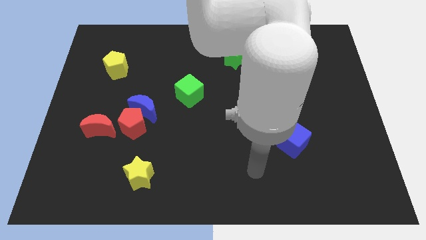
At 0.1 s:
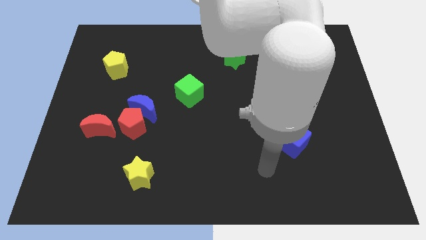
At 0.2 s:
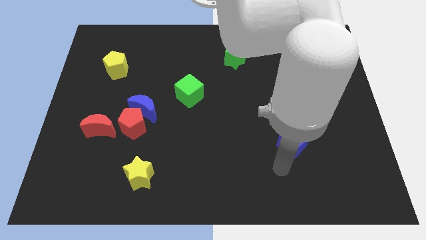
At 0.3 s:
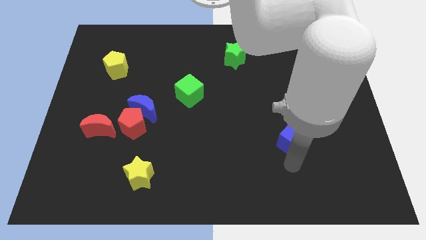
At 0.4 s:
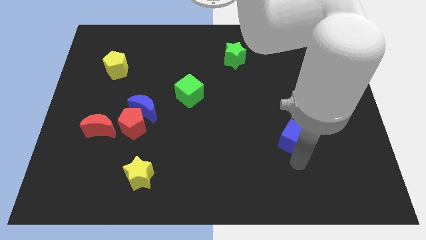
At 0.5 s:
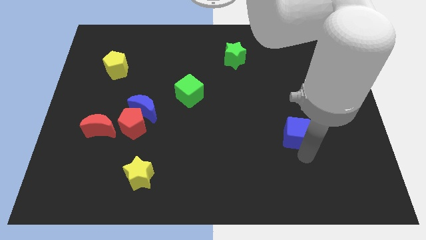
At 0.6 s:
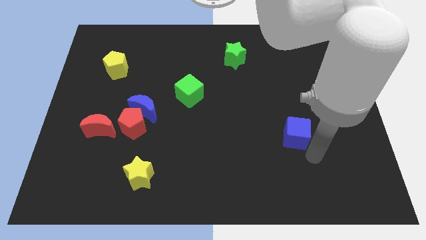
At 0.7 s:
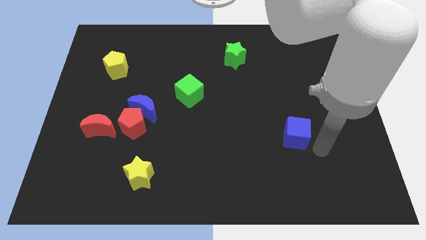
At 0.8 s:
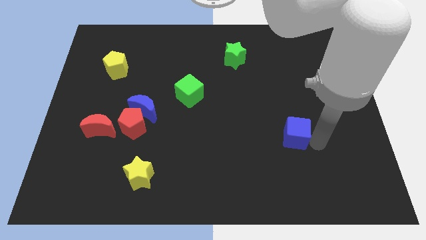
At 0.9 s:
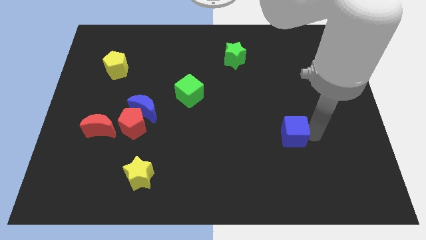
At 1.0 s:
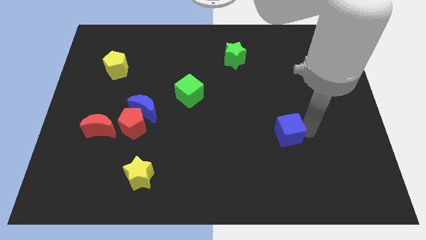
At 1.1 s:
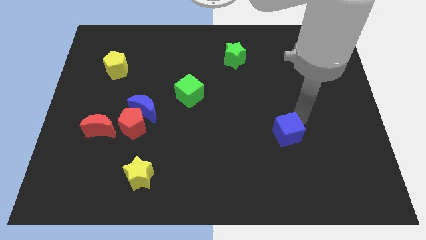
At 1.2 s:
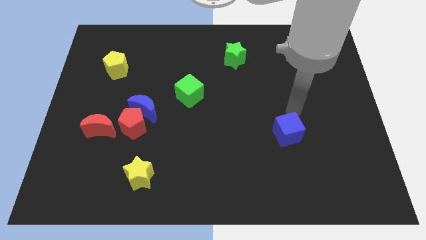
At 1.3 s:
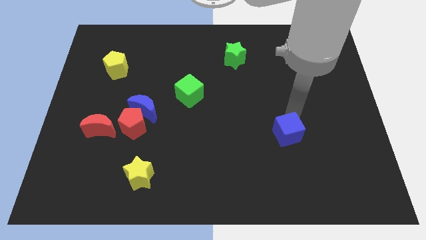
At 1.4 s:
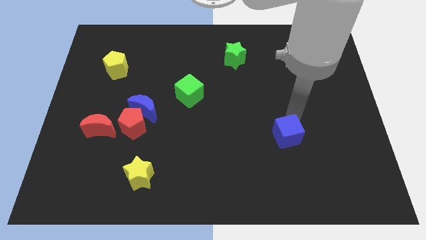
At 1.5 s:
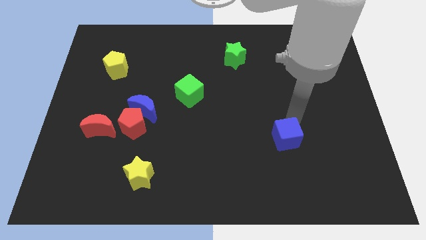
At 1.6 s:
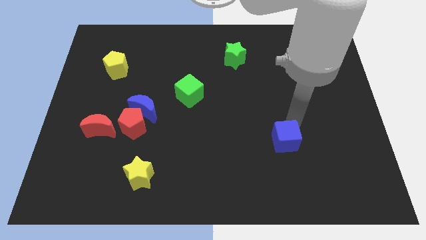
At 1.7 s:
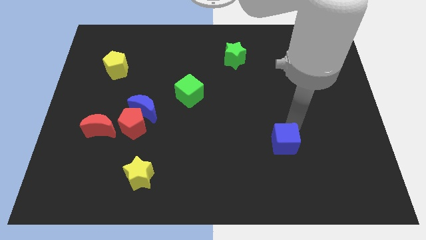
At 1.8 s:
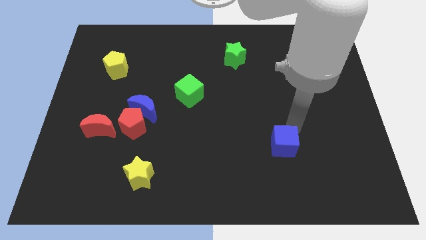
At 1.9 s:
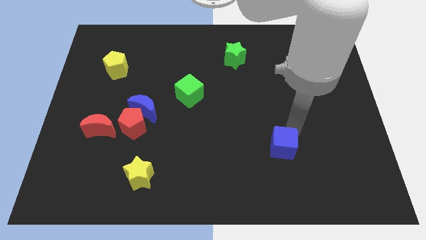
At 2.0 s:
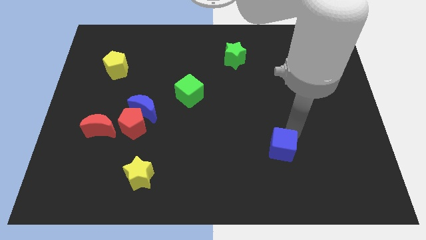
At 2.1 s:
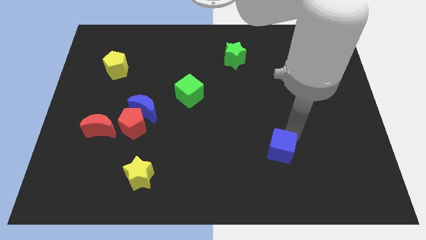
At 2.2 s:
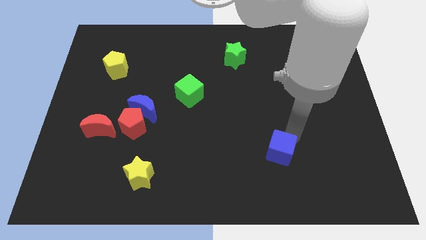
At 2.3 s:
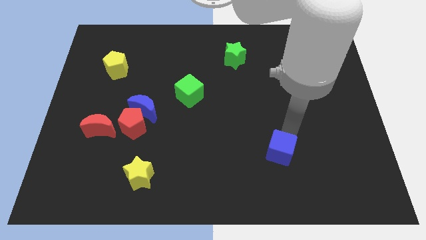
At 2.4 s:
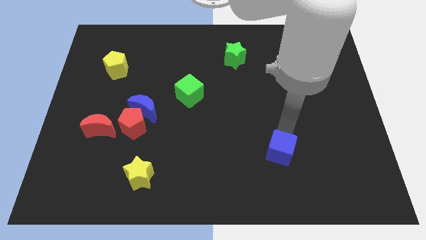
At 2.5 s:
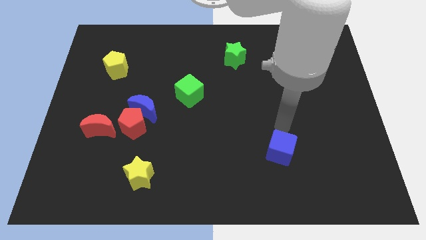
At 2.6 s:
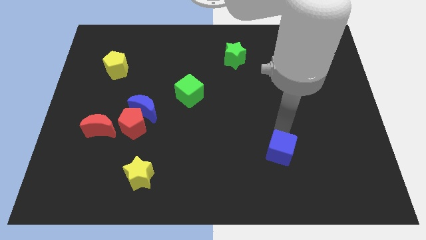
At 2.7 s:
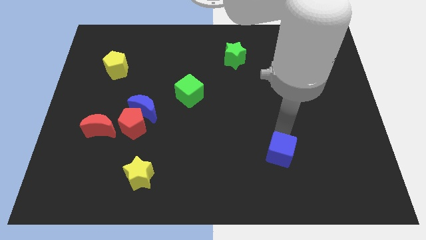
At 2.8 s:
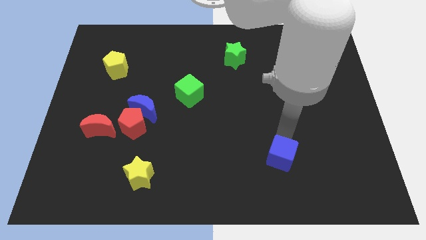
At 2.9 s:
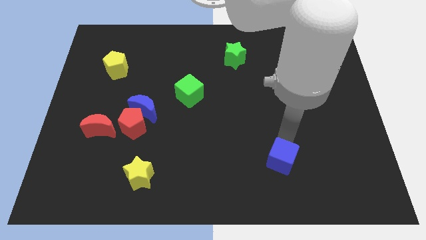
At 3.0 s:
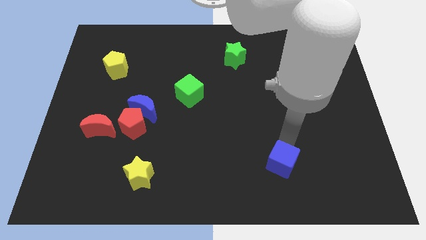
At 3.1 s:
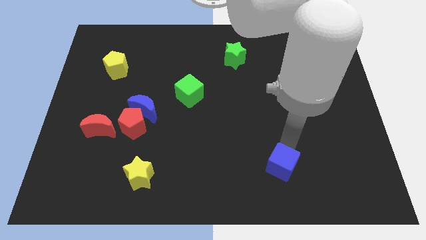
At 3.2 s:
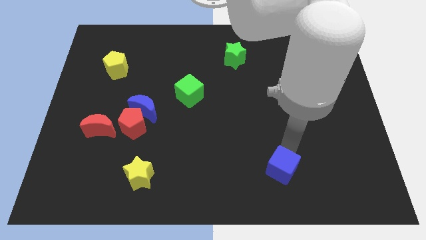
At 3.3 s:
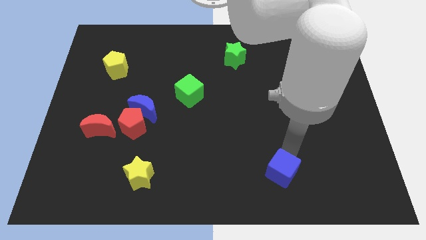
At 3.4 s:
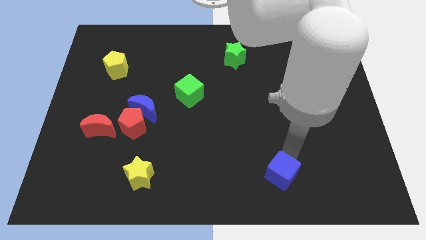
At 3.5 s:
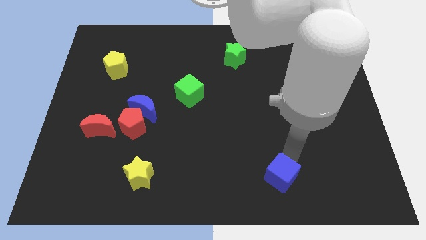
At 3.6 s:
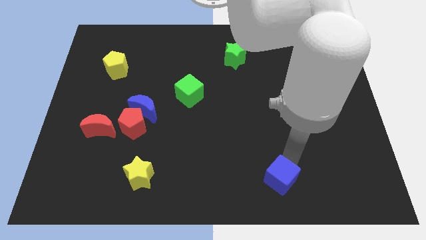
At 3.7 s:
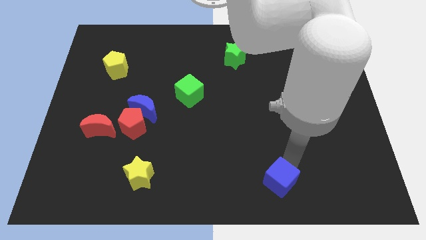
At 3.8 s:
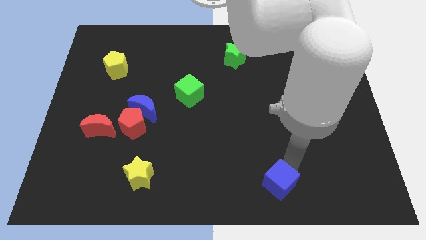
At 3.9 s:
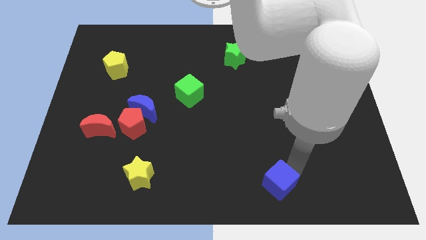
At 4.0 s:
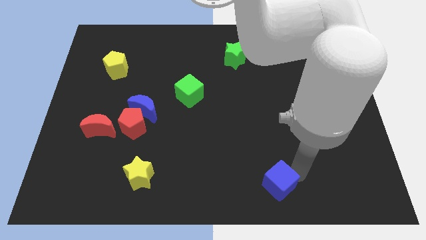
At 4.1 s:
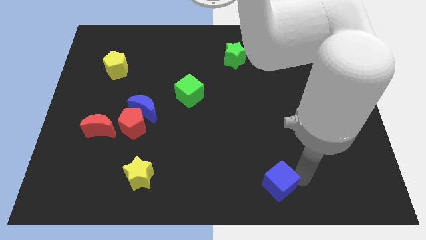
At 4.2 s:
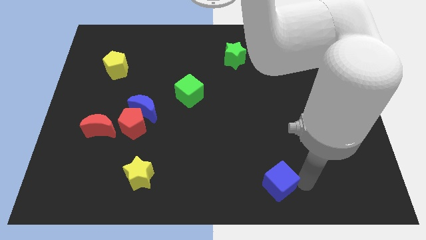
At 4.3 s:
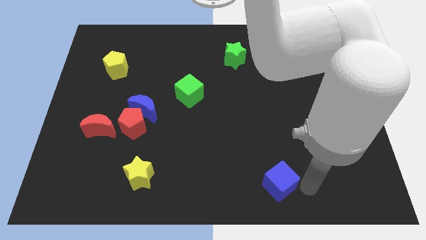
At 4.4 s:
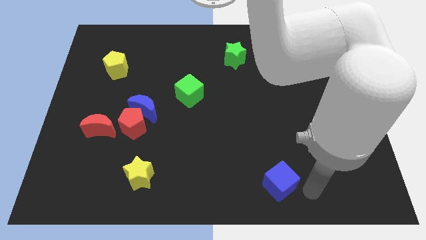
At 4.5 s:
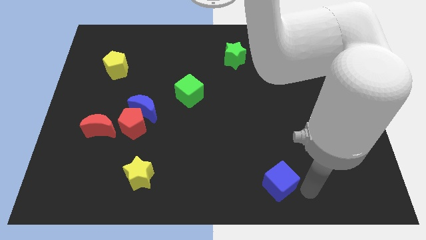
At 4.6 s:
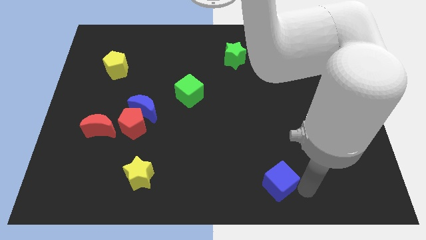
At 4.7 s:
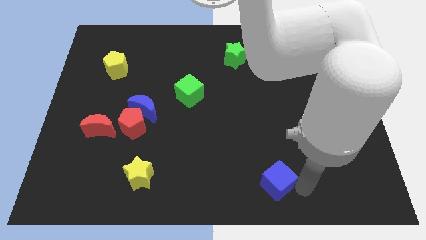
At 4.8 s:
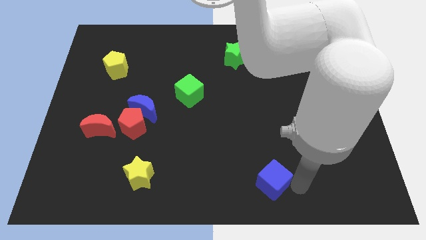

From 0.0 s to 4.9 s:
slide the blue cube to the bottom side

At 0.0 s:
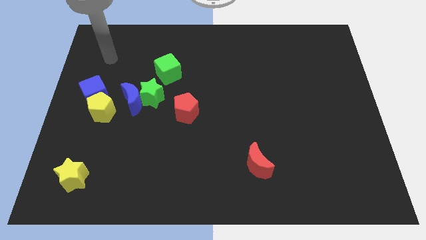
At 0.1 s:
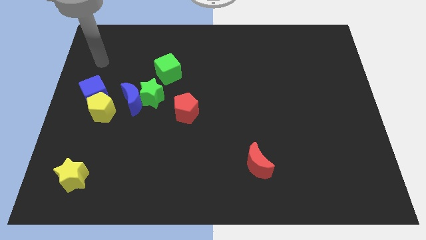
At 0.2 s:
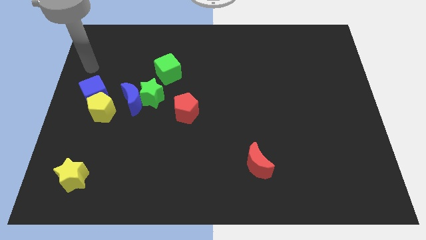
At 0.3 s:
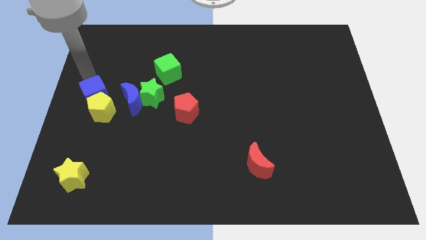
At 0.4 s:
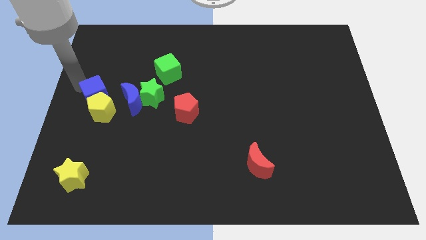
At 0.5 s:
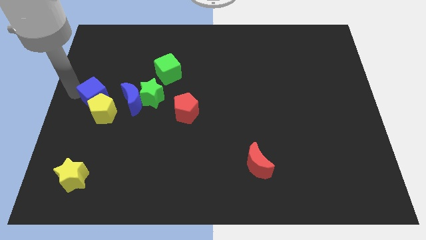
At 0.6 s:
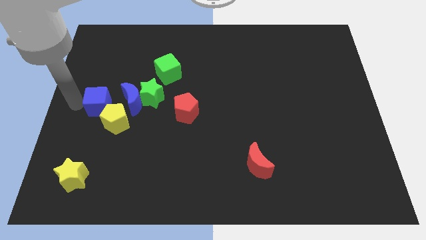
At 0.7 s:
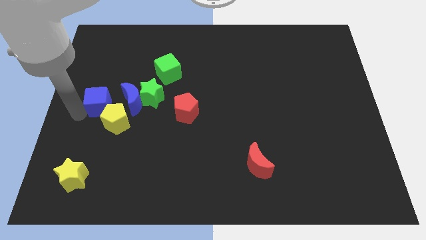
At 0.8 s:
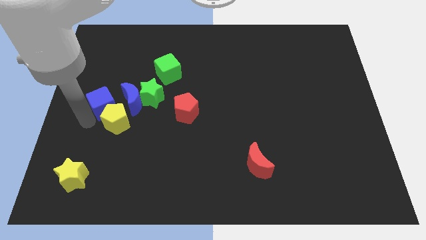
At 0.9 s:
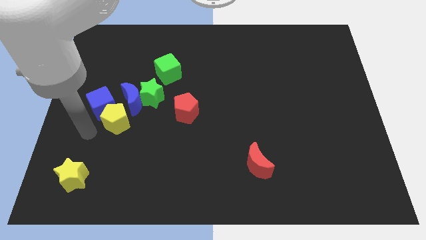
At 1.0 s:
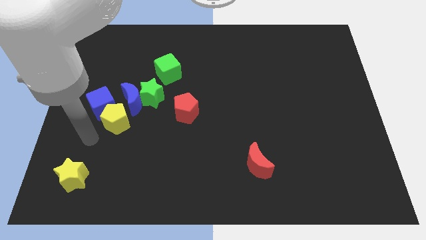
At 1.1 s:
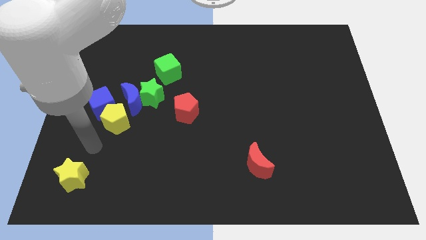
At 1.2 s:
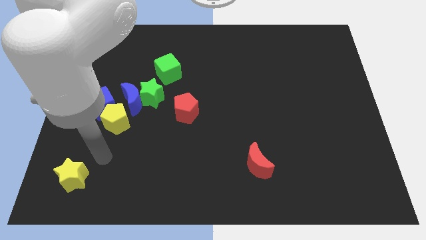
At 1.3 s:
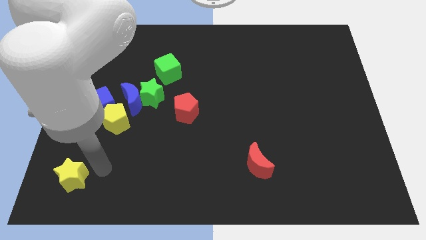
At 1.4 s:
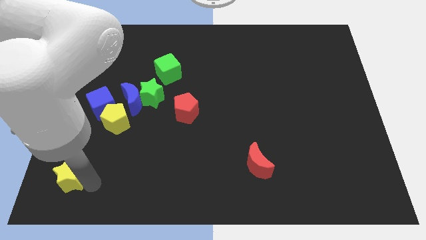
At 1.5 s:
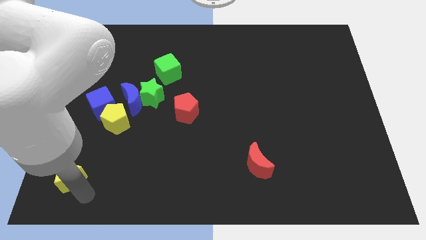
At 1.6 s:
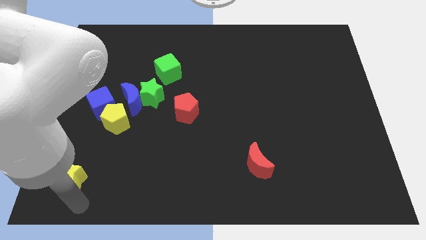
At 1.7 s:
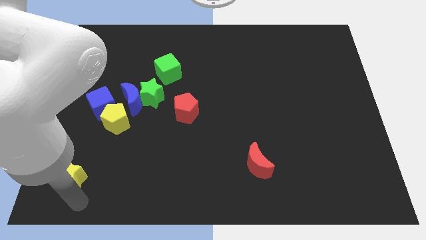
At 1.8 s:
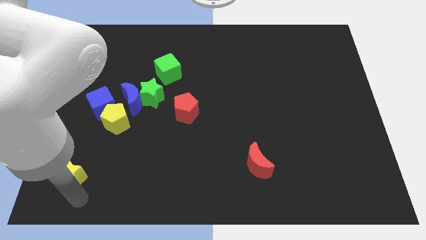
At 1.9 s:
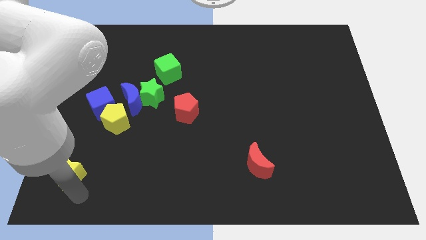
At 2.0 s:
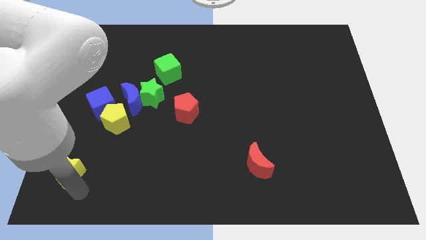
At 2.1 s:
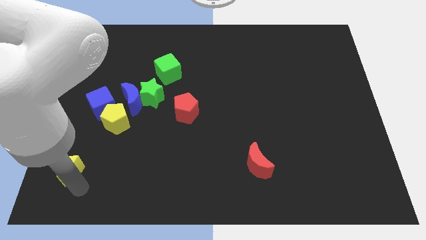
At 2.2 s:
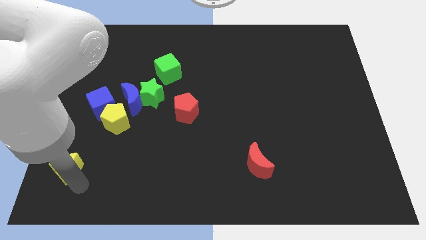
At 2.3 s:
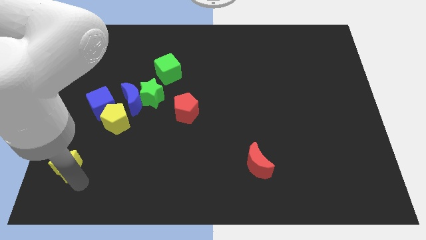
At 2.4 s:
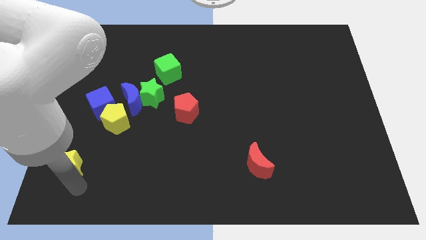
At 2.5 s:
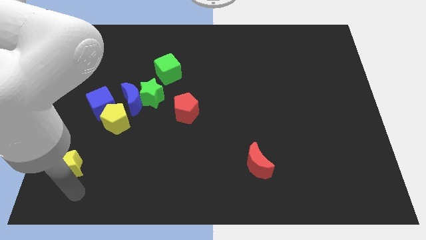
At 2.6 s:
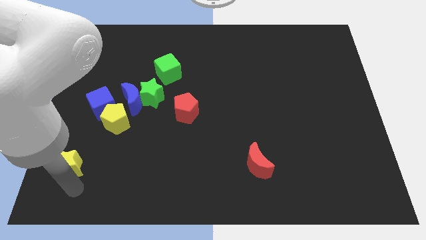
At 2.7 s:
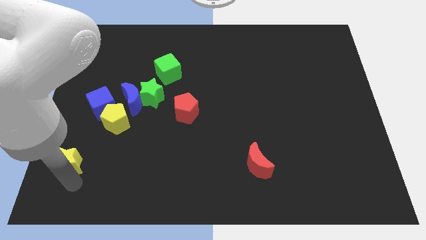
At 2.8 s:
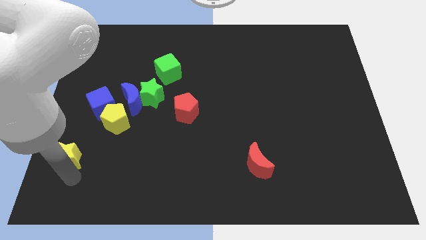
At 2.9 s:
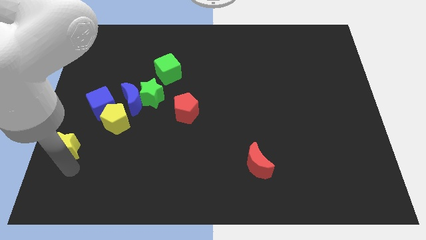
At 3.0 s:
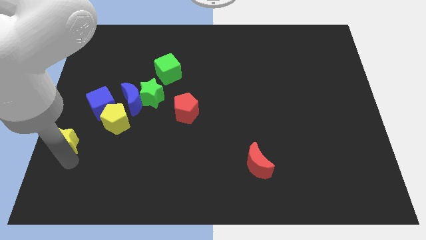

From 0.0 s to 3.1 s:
move the yellow star to the left side
